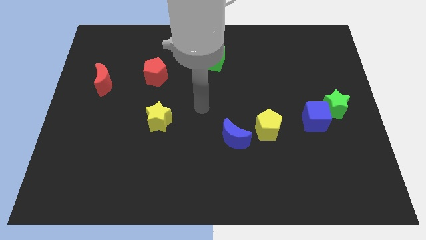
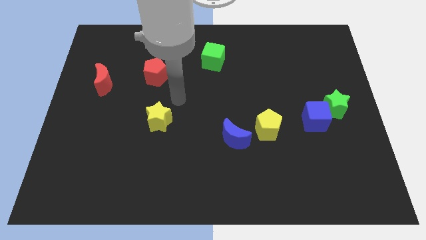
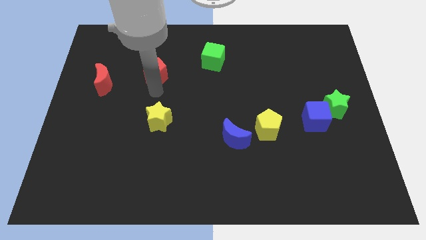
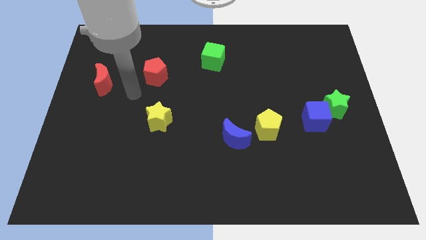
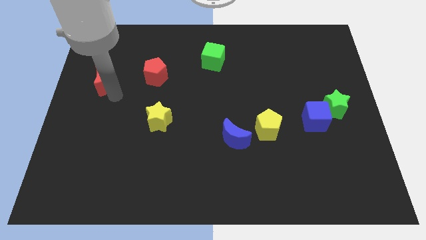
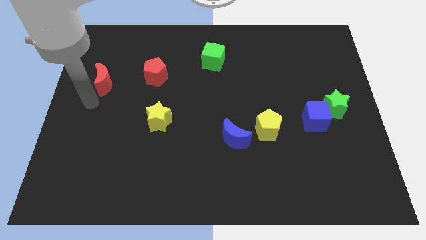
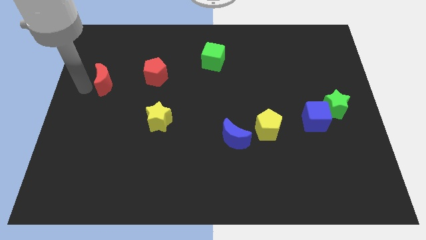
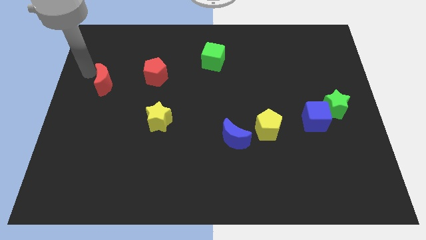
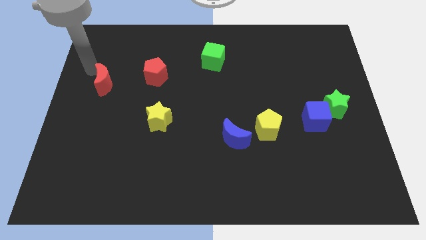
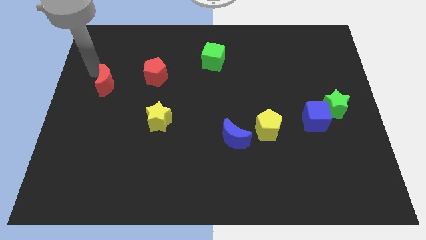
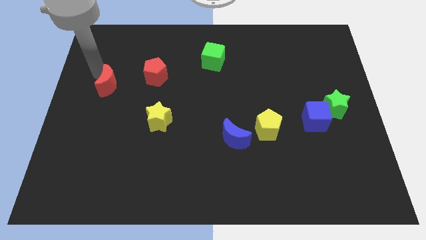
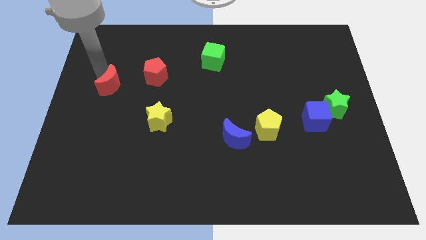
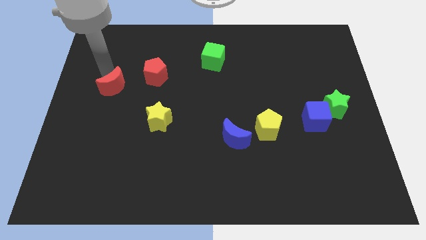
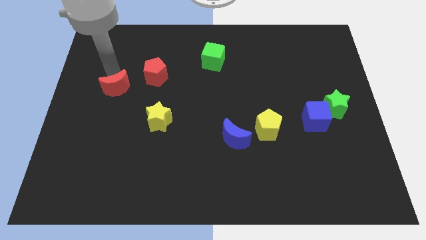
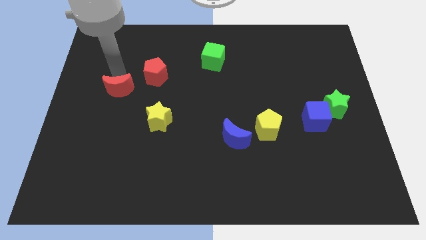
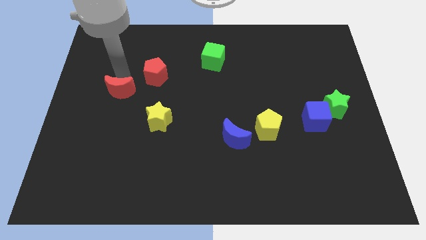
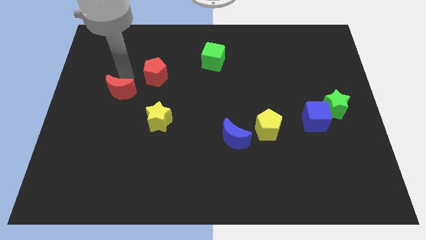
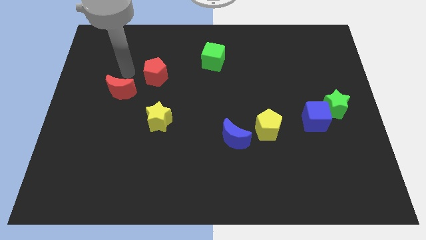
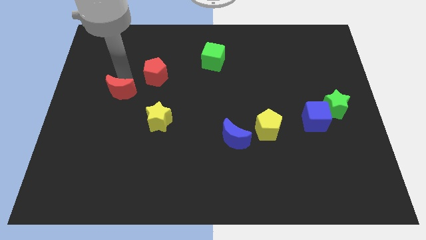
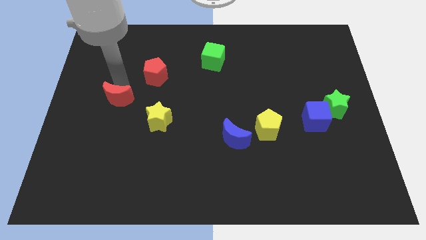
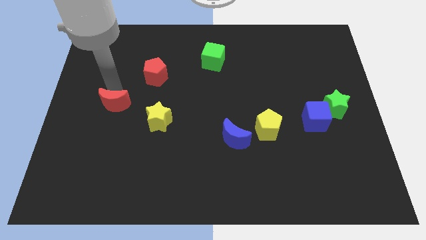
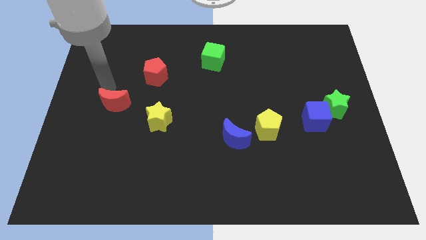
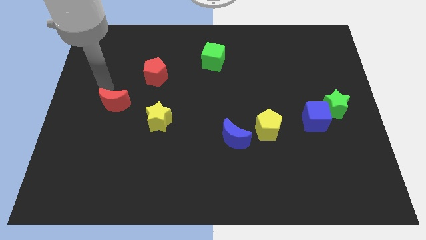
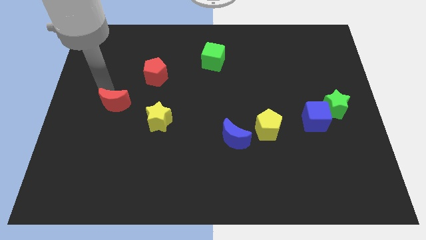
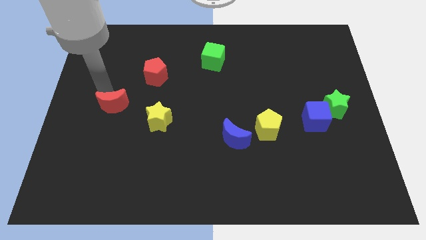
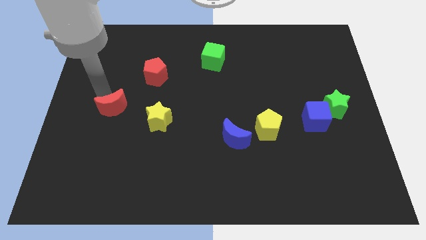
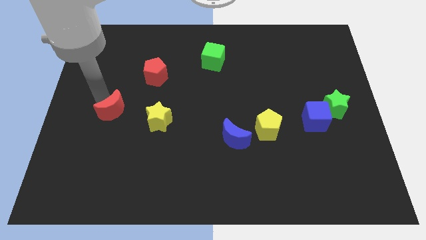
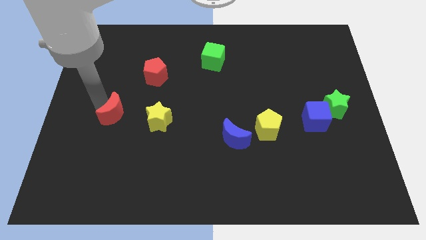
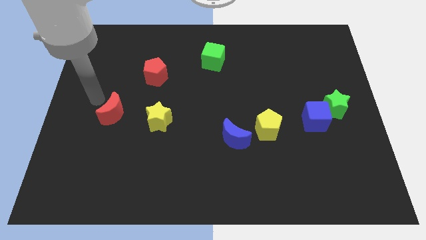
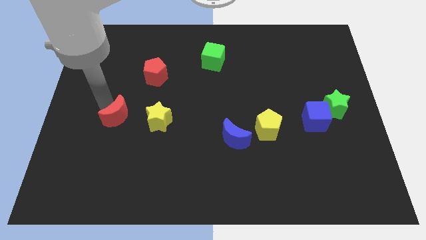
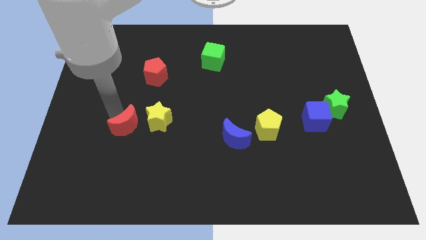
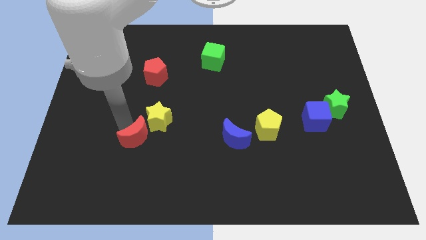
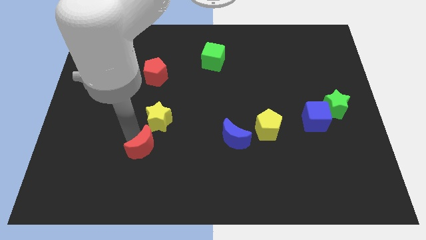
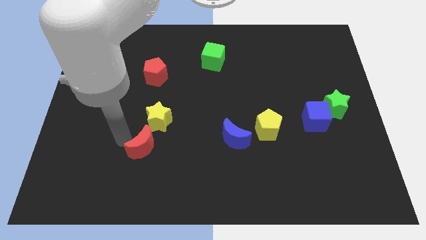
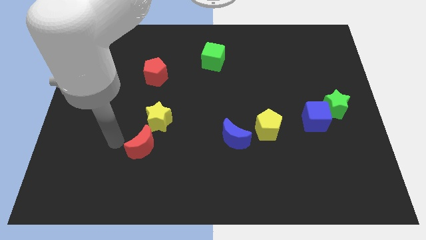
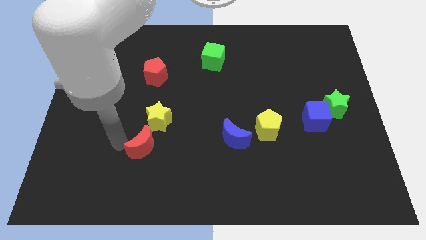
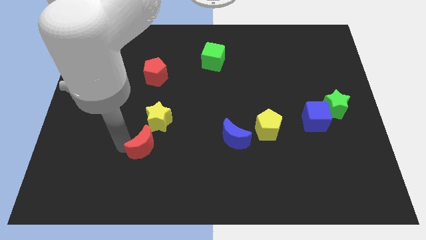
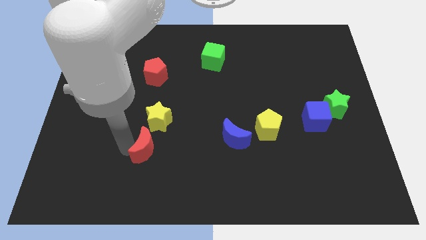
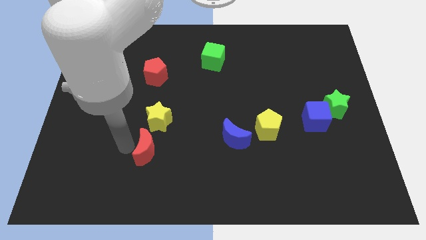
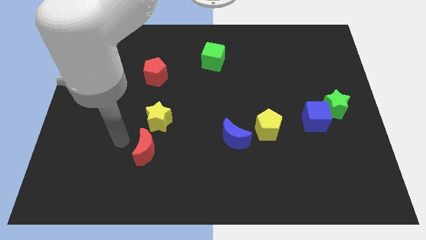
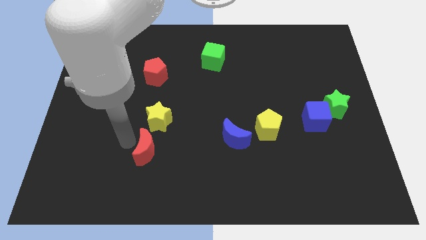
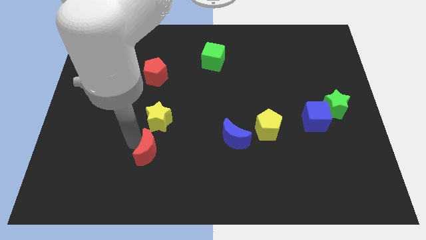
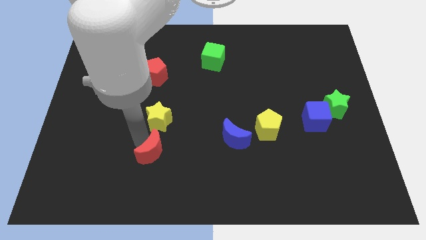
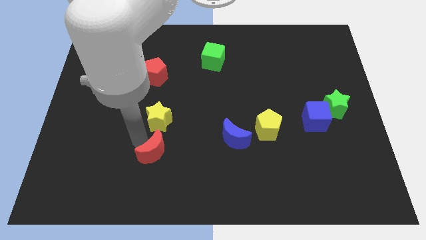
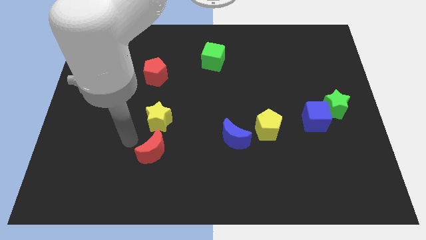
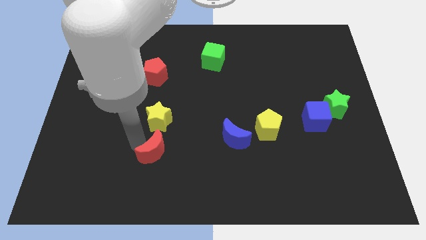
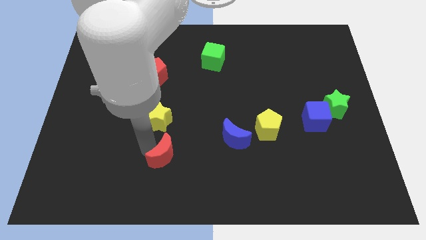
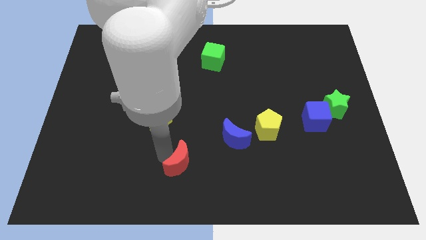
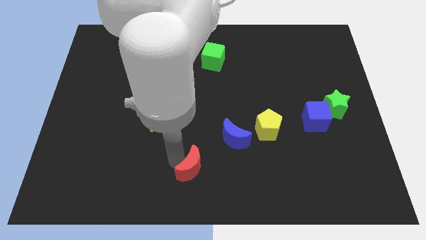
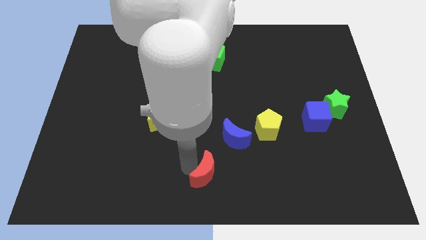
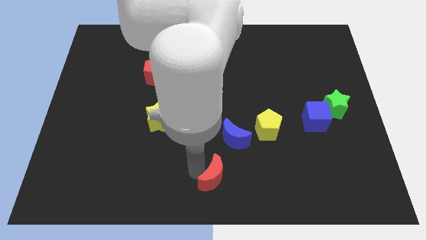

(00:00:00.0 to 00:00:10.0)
slide the red moon below the blue moon

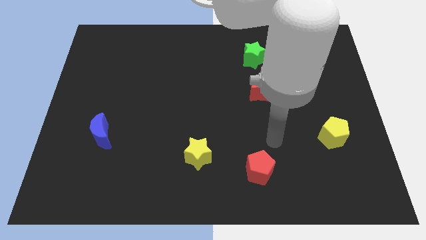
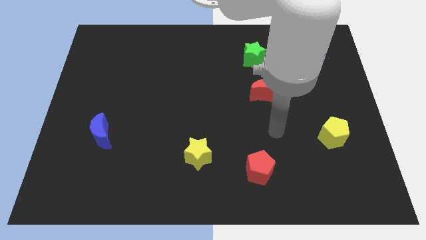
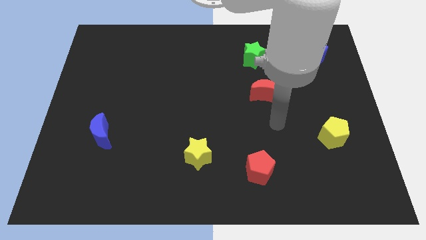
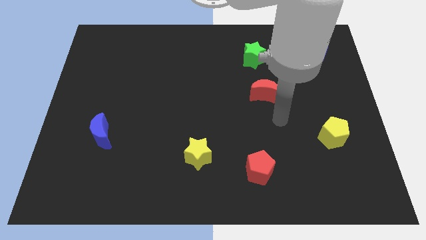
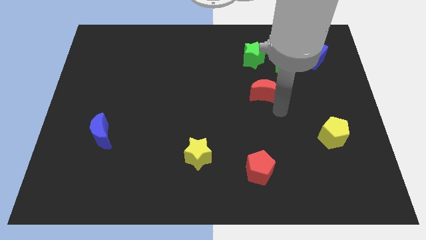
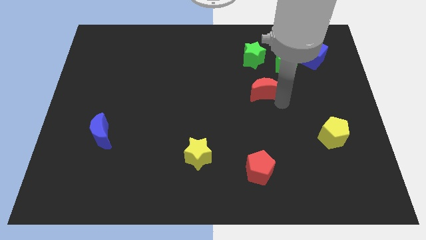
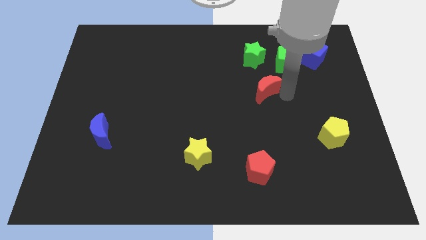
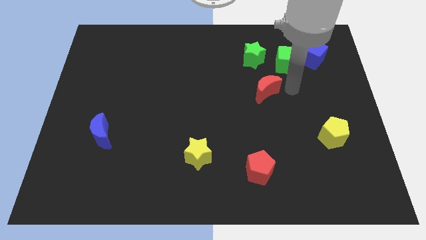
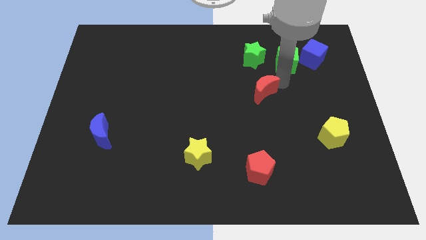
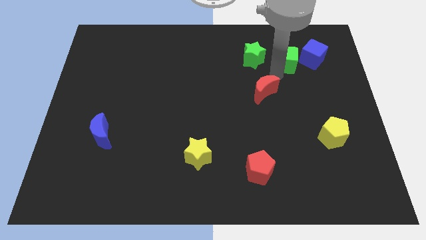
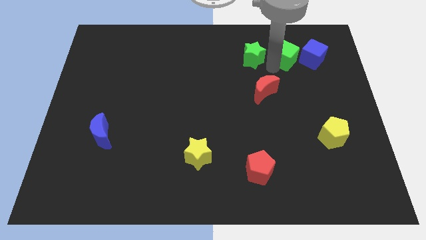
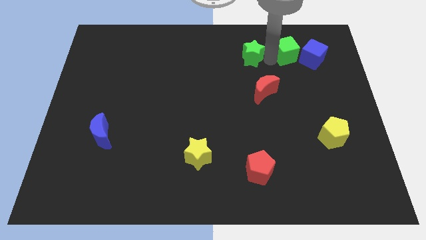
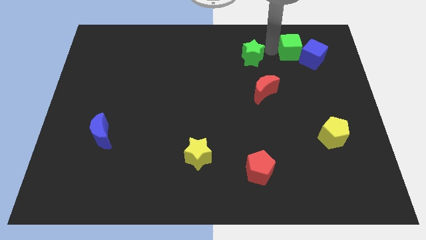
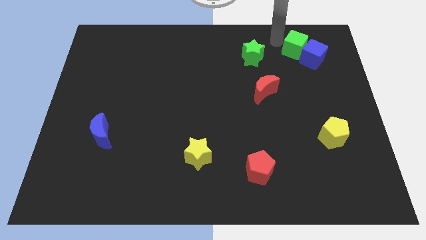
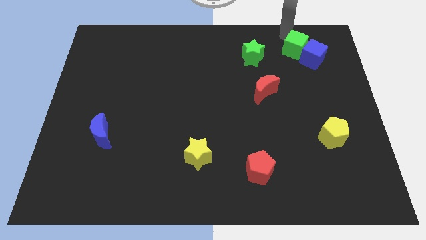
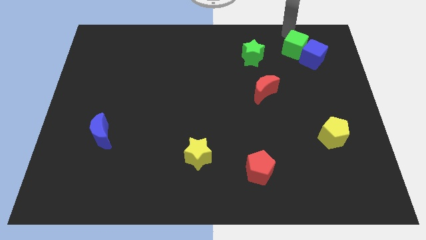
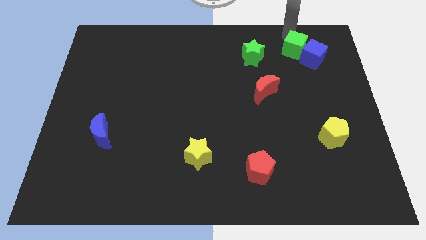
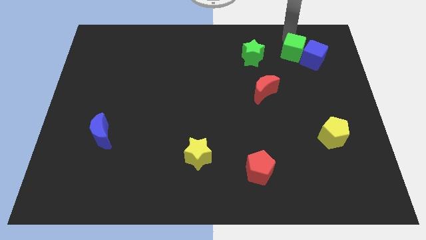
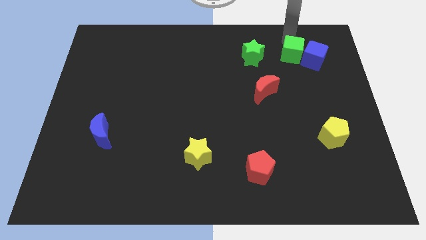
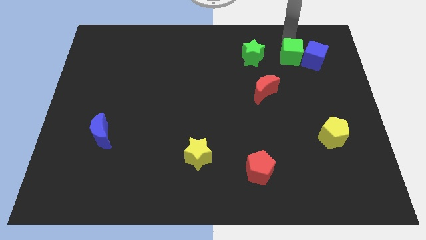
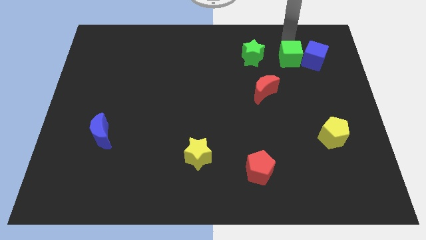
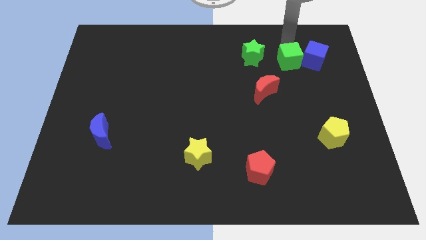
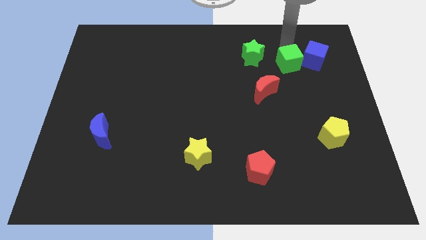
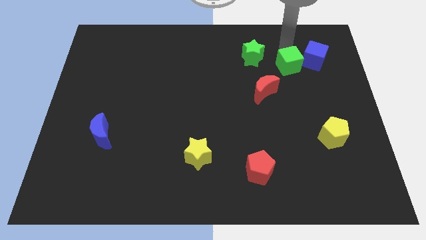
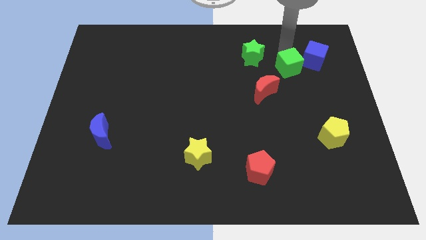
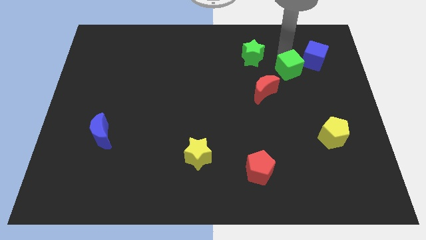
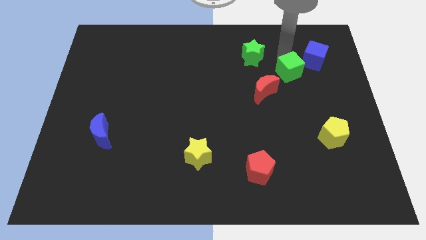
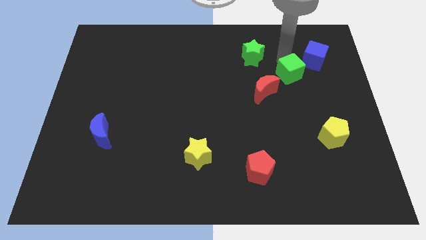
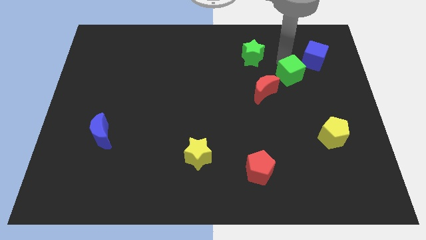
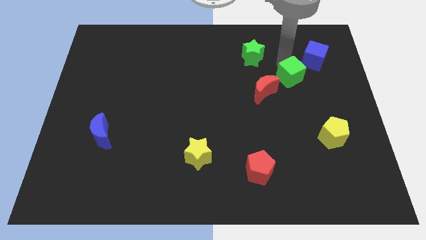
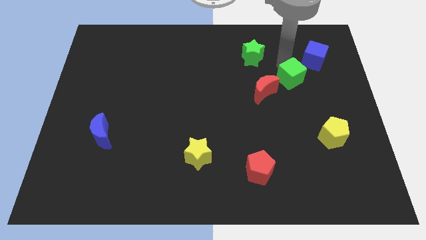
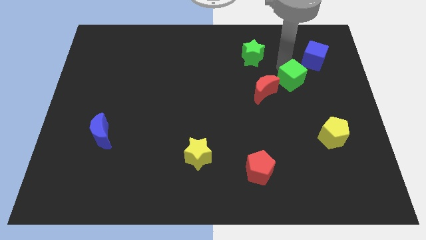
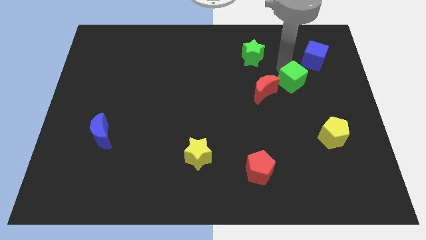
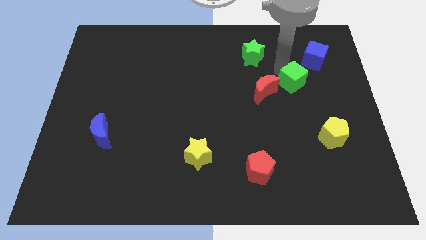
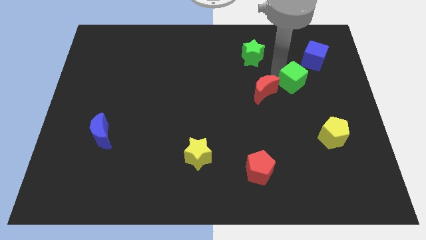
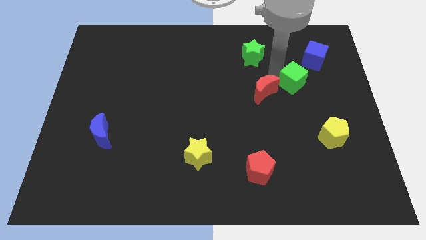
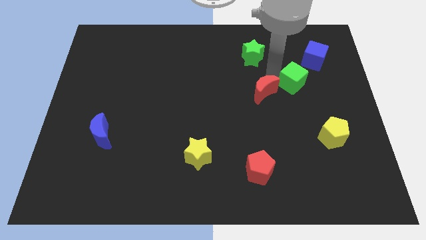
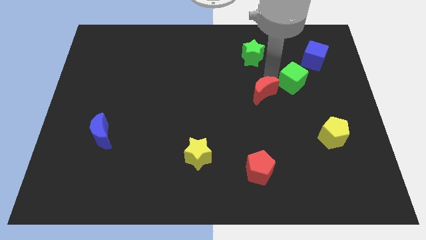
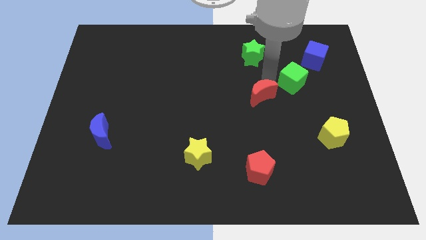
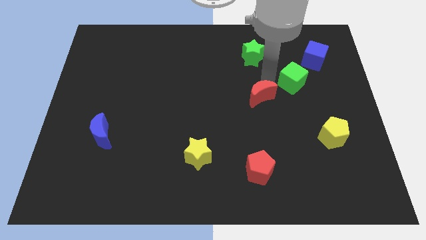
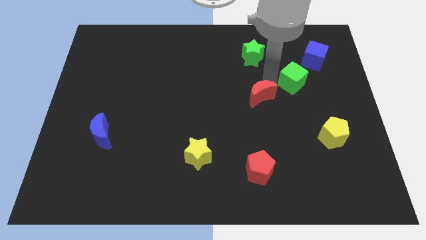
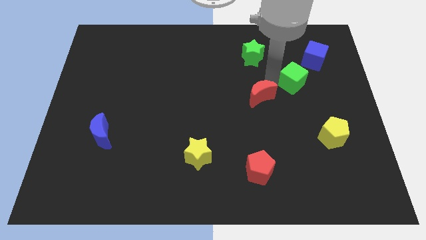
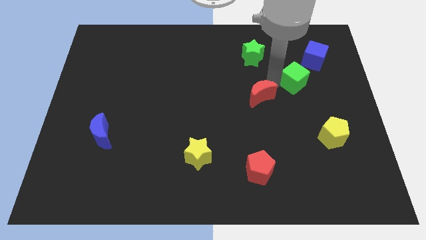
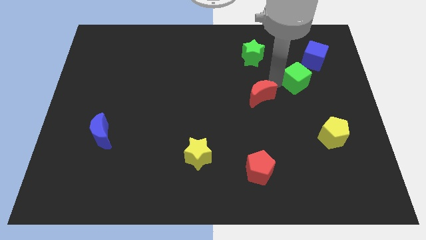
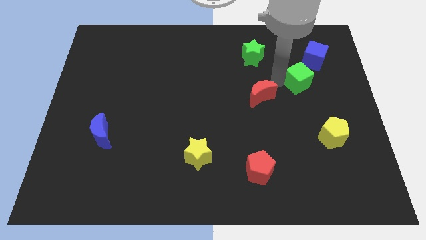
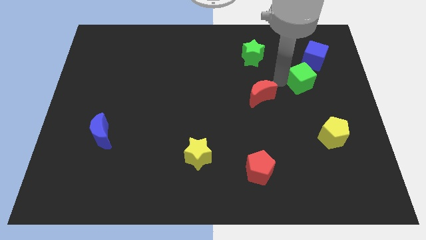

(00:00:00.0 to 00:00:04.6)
put the green cube to the bottom side of the blue cube
